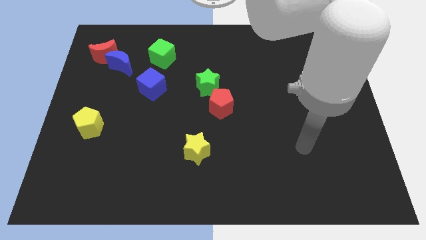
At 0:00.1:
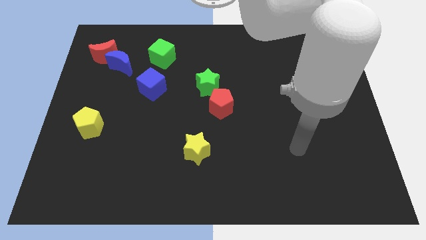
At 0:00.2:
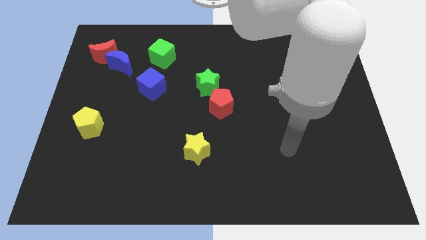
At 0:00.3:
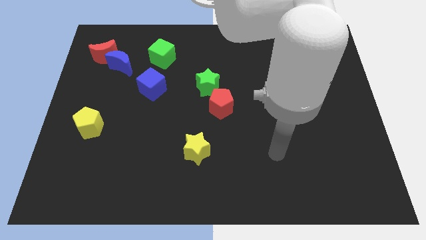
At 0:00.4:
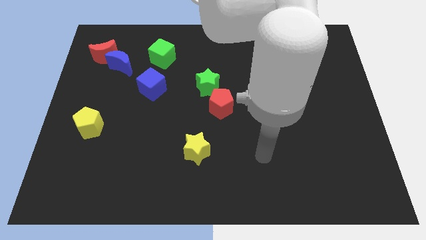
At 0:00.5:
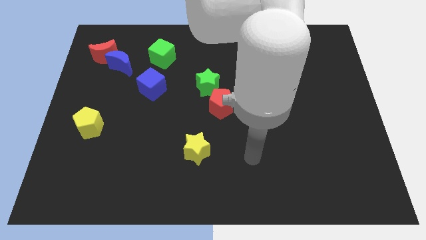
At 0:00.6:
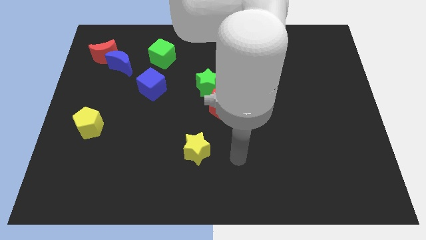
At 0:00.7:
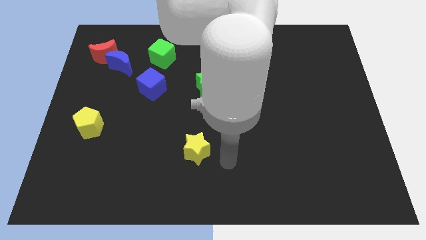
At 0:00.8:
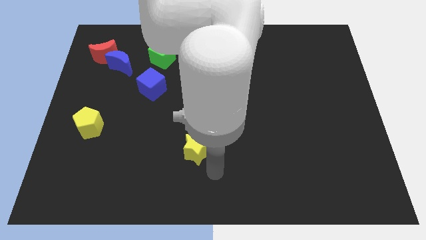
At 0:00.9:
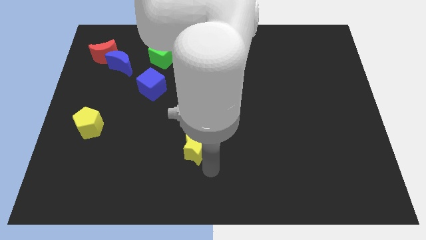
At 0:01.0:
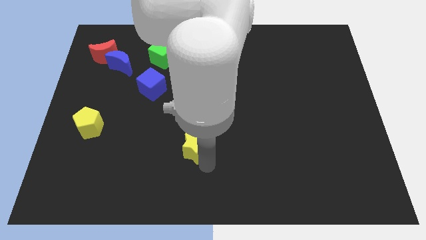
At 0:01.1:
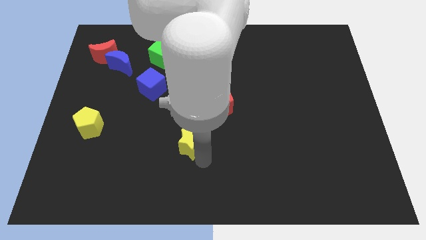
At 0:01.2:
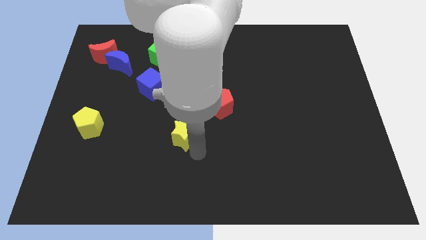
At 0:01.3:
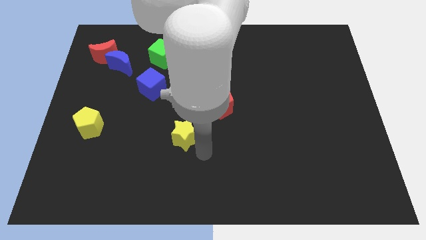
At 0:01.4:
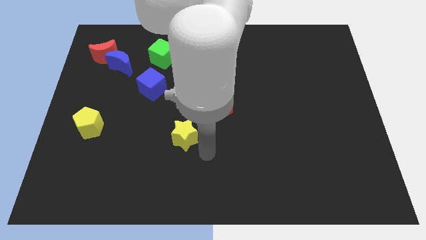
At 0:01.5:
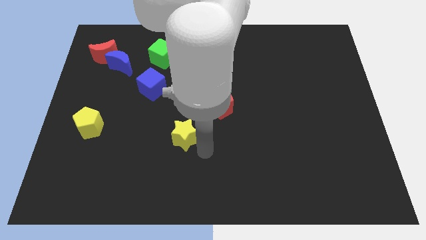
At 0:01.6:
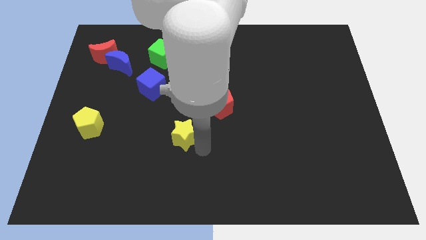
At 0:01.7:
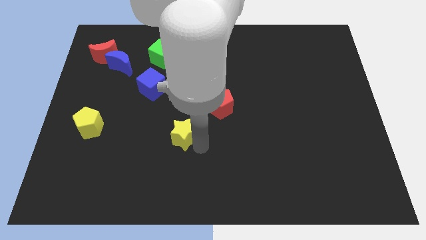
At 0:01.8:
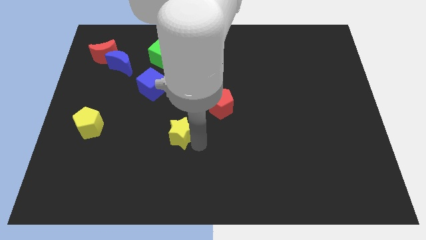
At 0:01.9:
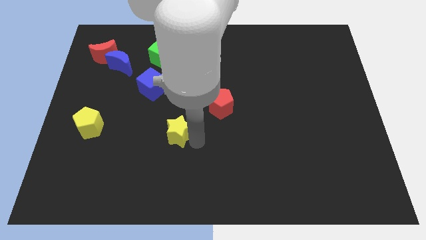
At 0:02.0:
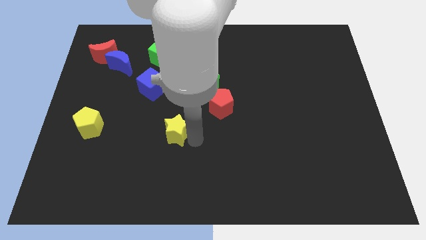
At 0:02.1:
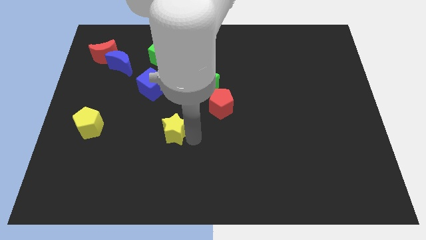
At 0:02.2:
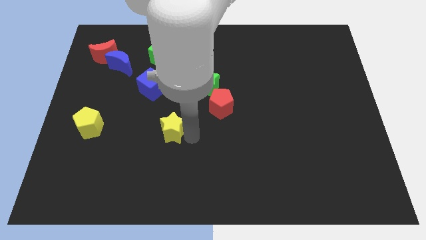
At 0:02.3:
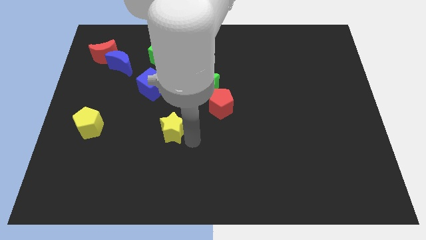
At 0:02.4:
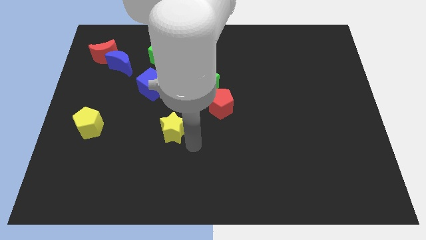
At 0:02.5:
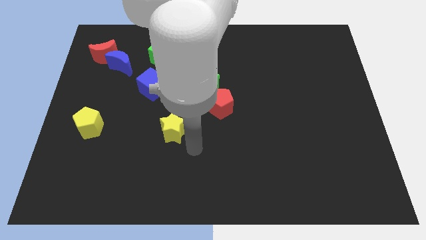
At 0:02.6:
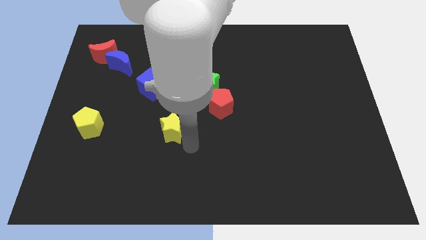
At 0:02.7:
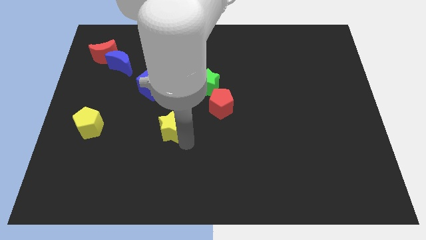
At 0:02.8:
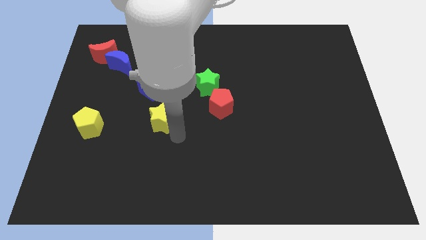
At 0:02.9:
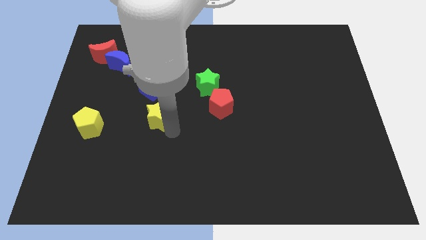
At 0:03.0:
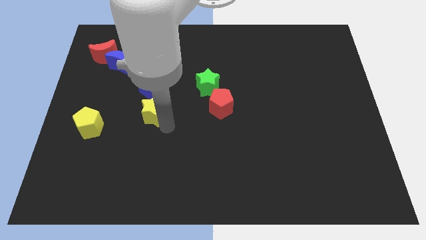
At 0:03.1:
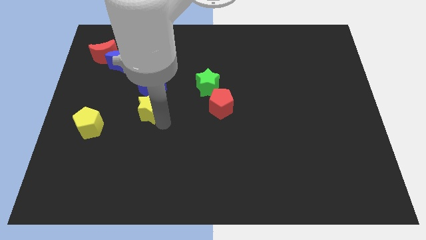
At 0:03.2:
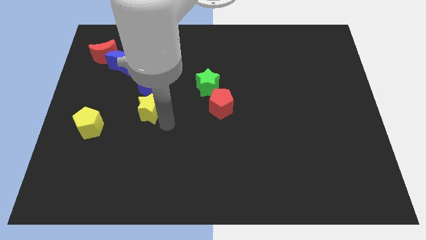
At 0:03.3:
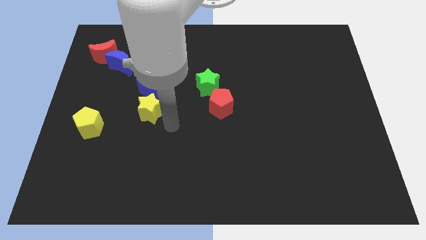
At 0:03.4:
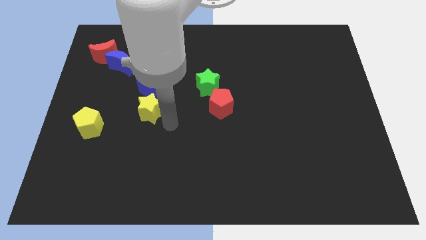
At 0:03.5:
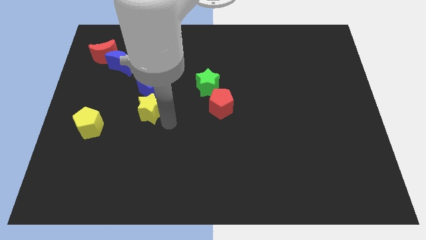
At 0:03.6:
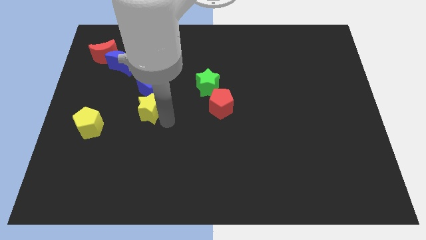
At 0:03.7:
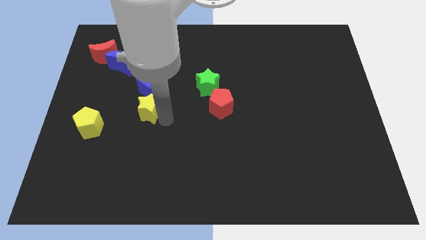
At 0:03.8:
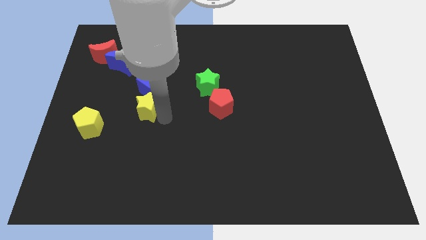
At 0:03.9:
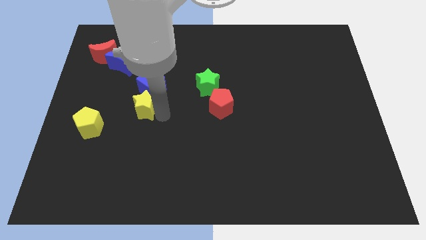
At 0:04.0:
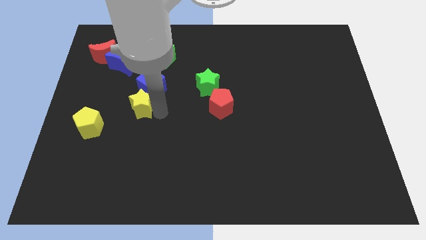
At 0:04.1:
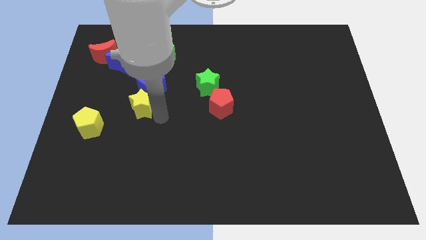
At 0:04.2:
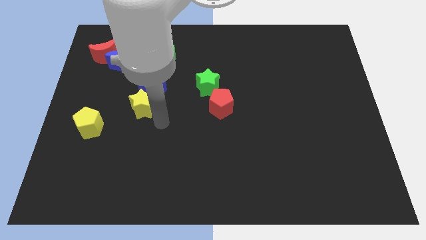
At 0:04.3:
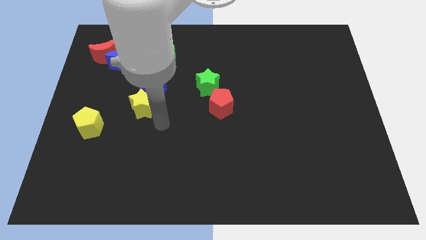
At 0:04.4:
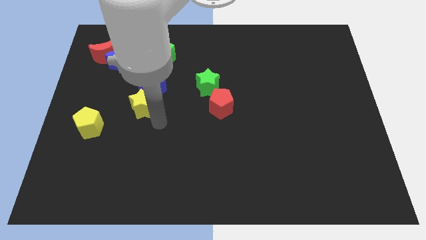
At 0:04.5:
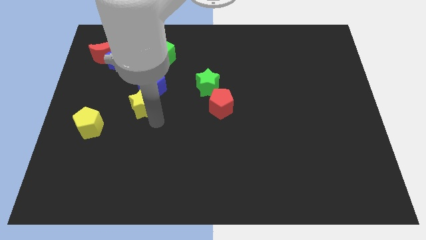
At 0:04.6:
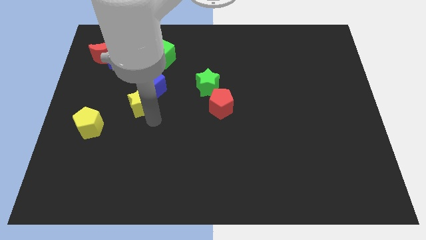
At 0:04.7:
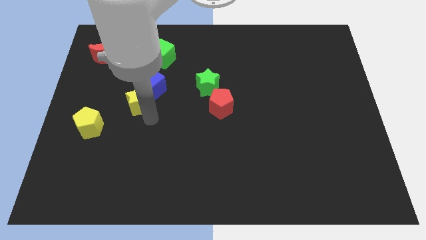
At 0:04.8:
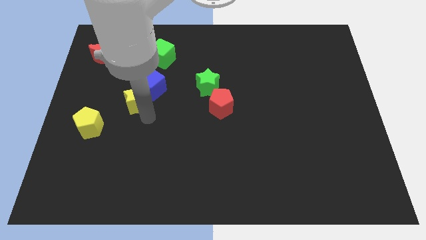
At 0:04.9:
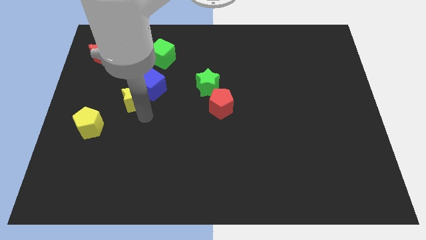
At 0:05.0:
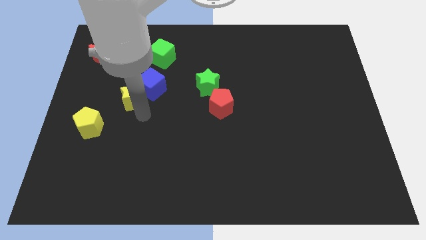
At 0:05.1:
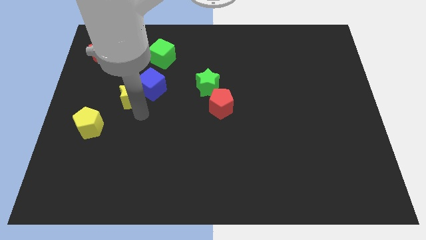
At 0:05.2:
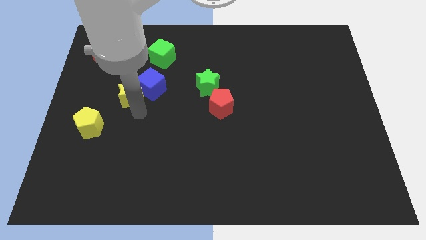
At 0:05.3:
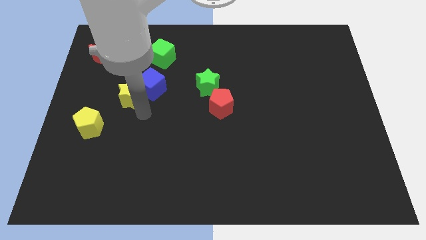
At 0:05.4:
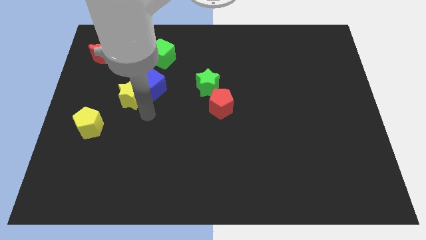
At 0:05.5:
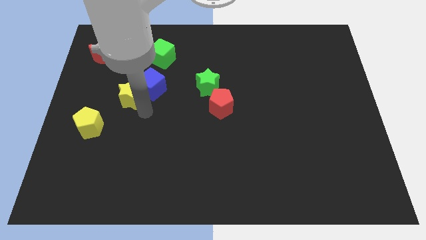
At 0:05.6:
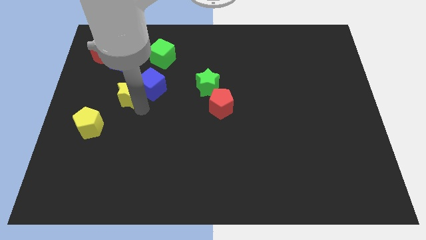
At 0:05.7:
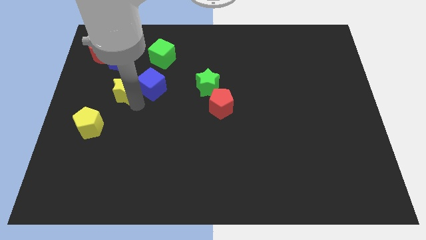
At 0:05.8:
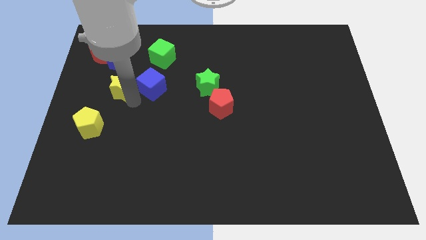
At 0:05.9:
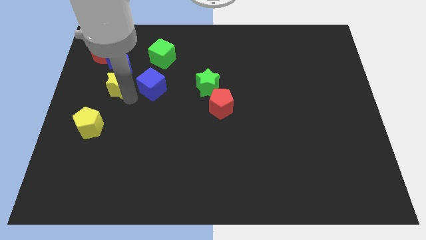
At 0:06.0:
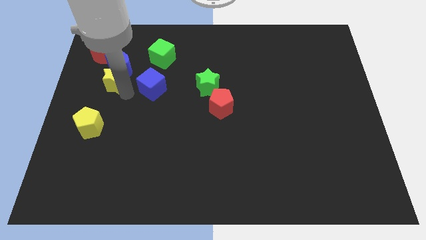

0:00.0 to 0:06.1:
slide the yellow star diagonally down and to the left of the blue moon

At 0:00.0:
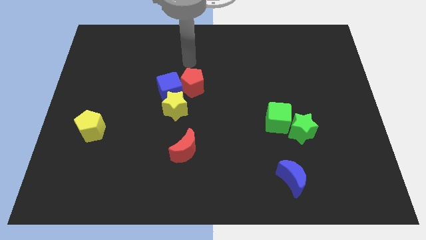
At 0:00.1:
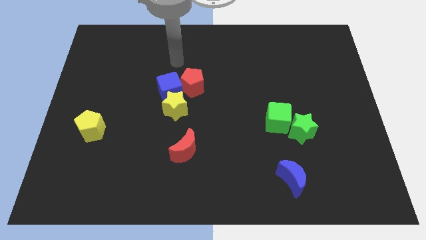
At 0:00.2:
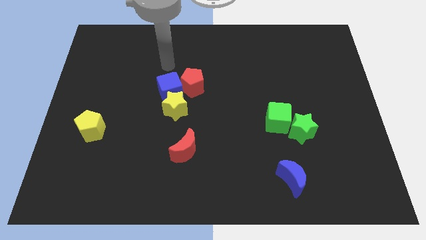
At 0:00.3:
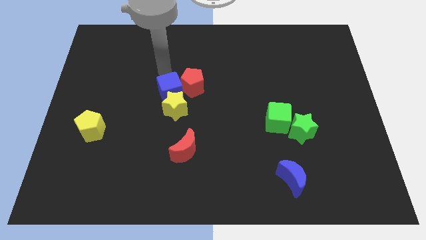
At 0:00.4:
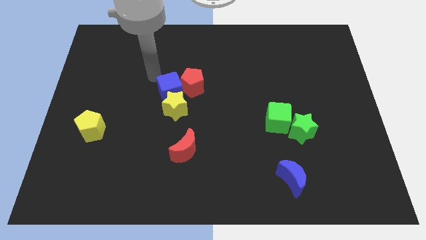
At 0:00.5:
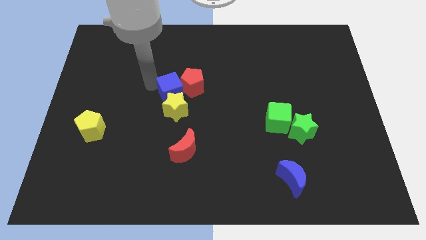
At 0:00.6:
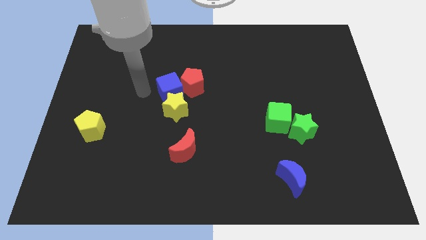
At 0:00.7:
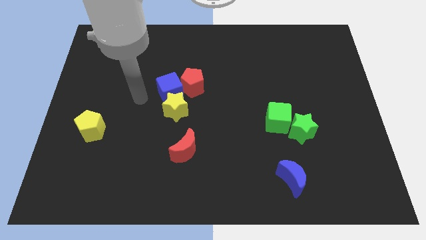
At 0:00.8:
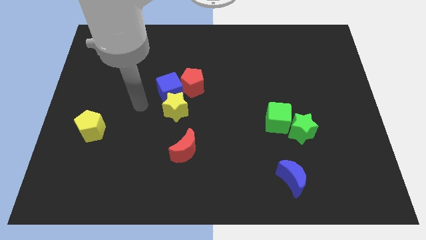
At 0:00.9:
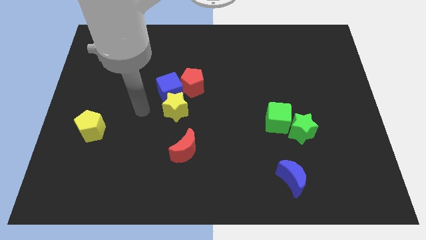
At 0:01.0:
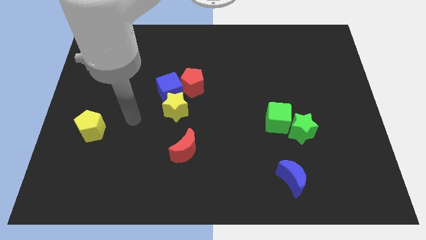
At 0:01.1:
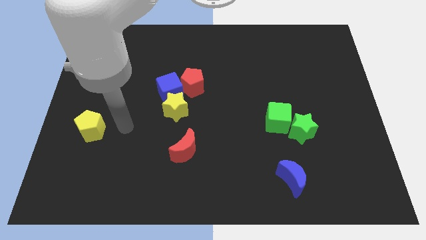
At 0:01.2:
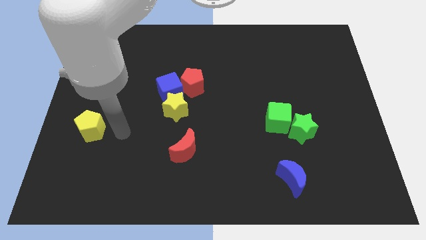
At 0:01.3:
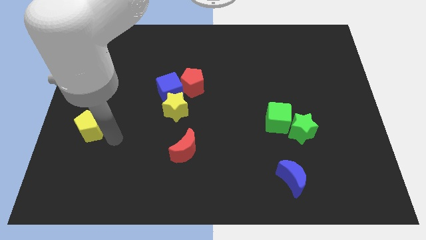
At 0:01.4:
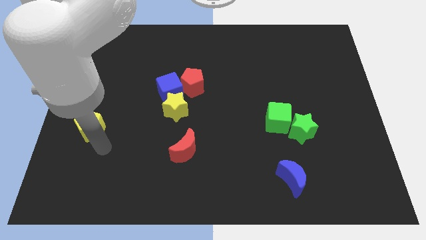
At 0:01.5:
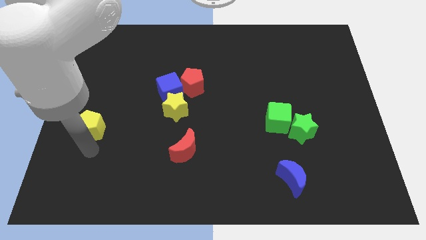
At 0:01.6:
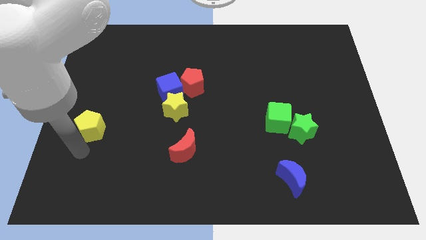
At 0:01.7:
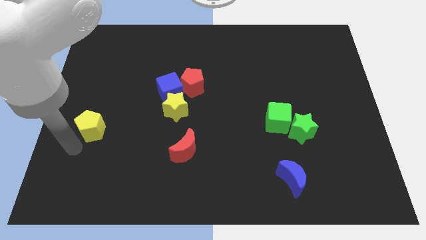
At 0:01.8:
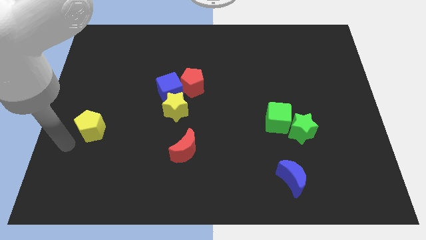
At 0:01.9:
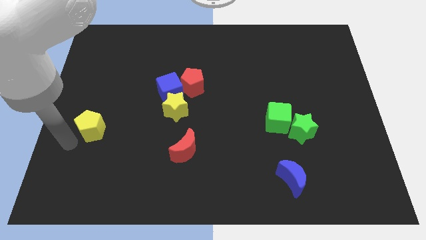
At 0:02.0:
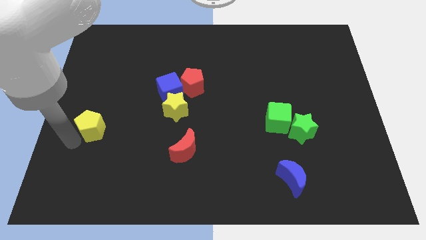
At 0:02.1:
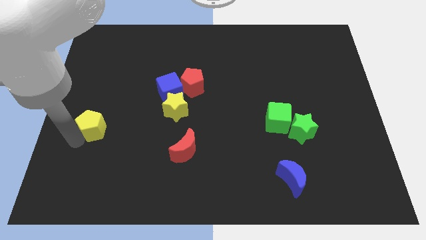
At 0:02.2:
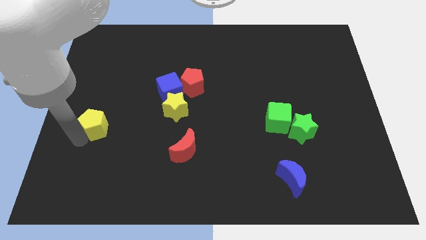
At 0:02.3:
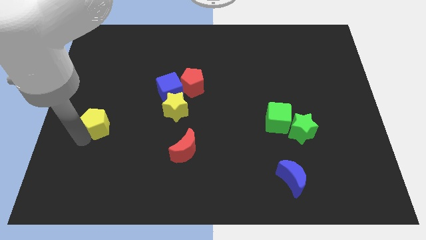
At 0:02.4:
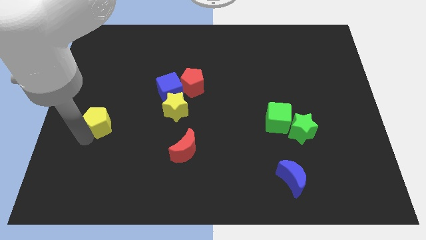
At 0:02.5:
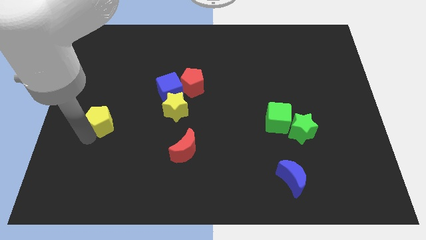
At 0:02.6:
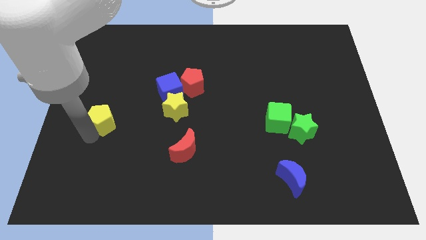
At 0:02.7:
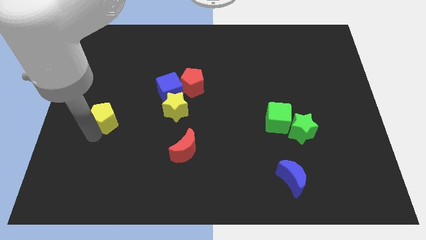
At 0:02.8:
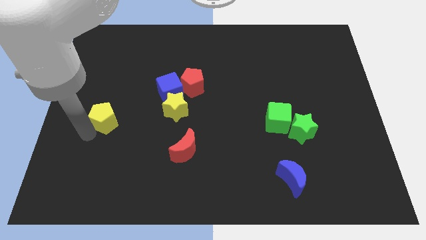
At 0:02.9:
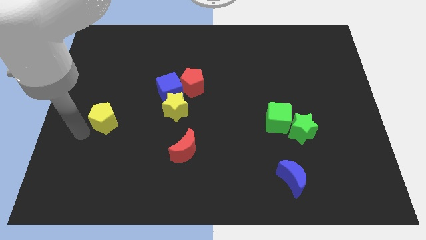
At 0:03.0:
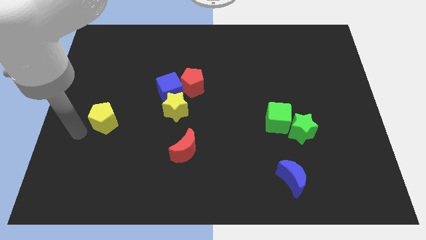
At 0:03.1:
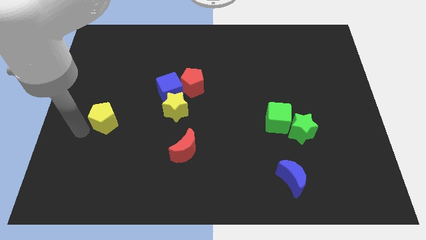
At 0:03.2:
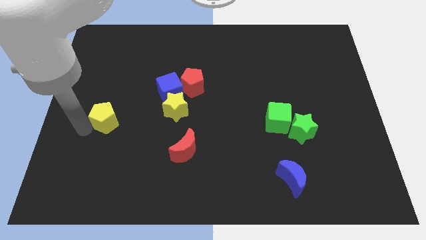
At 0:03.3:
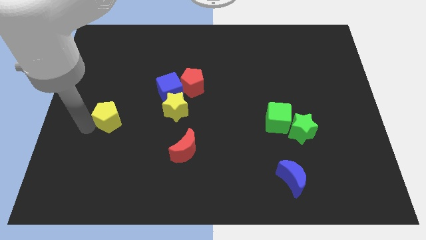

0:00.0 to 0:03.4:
slide the yellow pentagon just left of the yellow star
